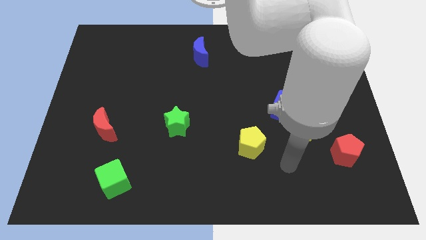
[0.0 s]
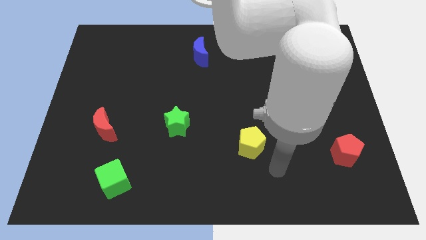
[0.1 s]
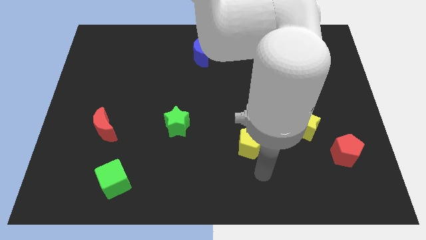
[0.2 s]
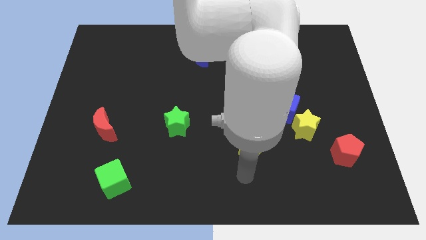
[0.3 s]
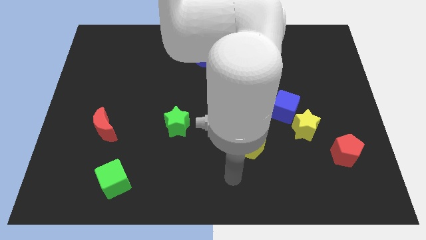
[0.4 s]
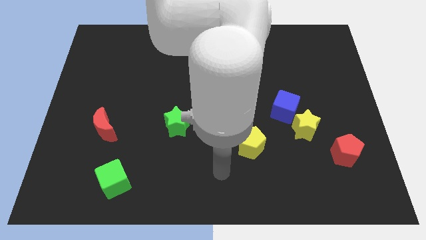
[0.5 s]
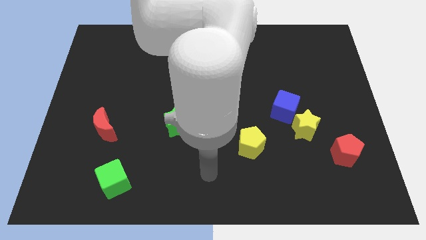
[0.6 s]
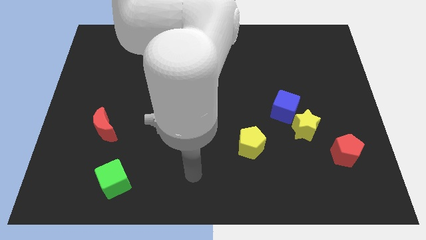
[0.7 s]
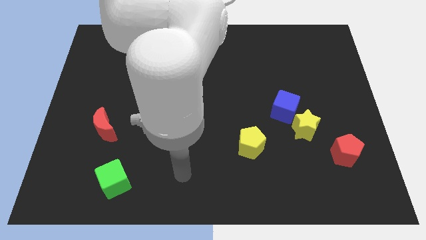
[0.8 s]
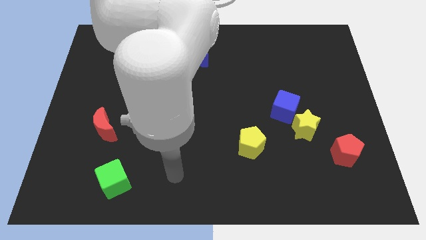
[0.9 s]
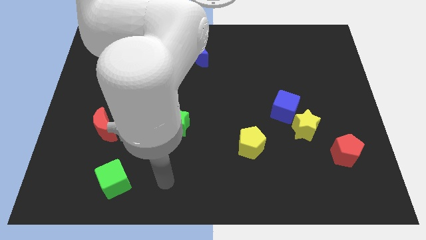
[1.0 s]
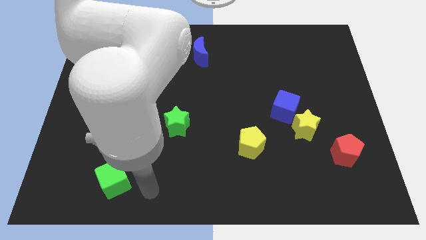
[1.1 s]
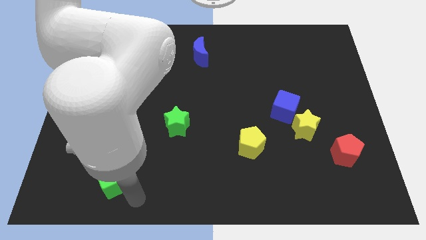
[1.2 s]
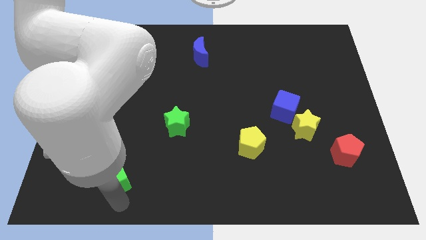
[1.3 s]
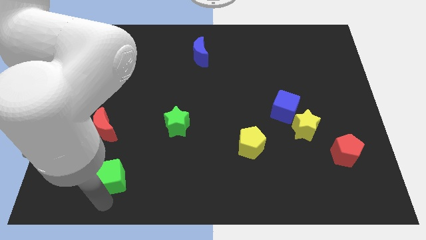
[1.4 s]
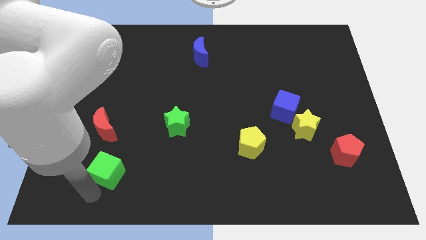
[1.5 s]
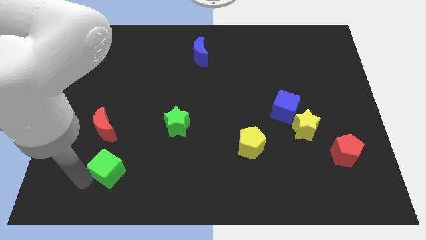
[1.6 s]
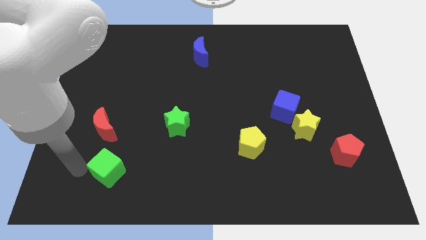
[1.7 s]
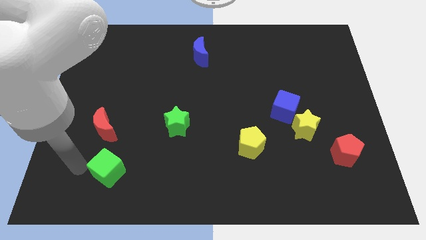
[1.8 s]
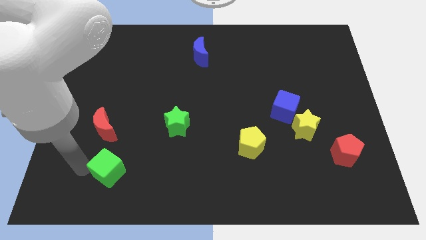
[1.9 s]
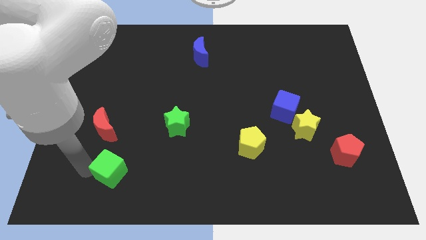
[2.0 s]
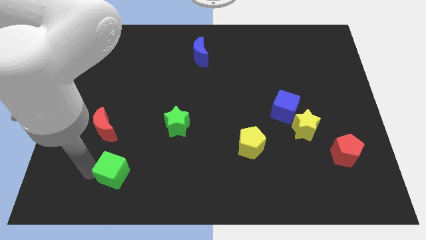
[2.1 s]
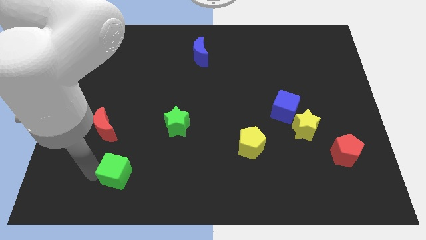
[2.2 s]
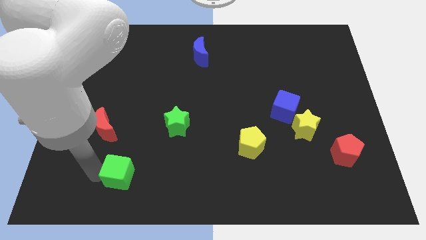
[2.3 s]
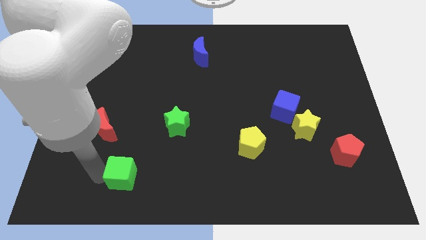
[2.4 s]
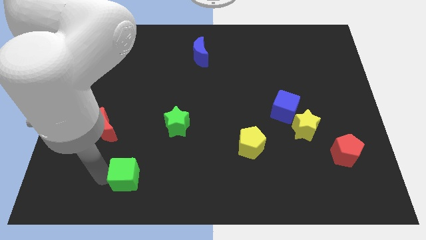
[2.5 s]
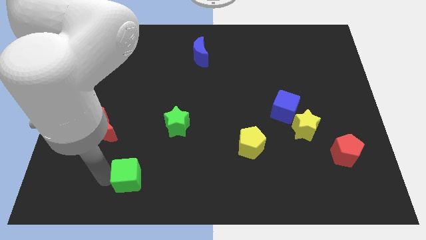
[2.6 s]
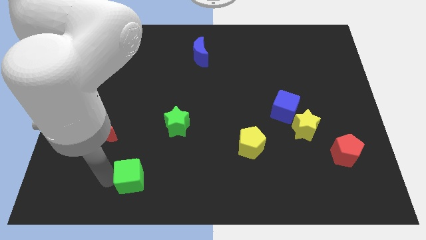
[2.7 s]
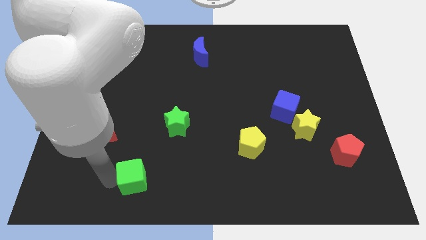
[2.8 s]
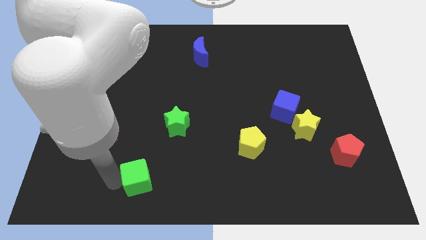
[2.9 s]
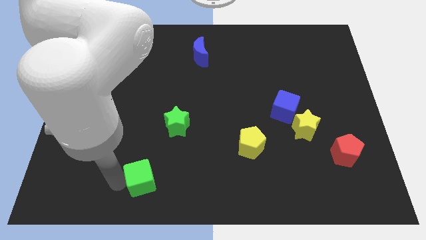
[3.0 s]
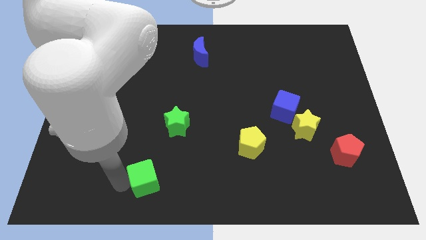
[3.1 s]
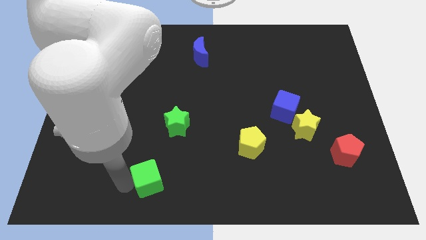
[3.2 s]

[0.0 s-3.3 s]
push the green cube to the right somewhat

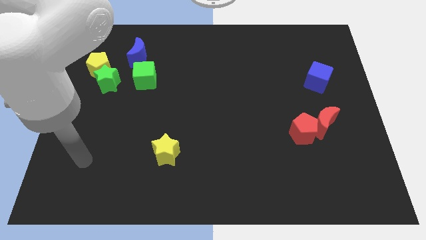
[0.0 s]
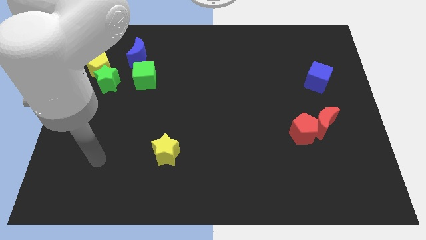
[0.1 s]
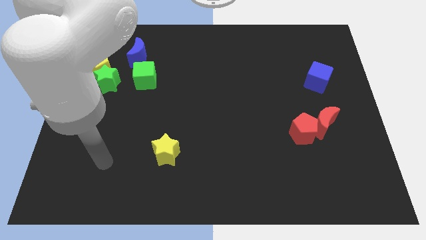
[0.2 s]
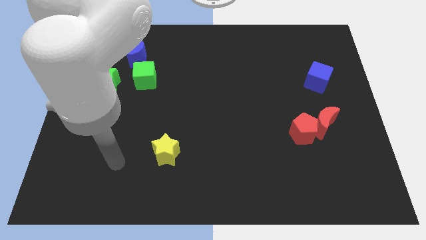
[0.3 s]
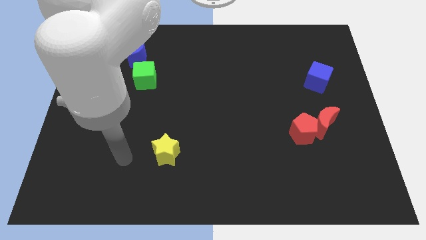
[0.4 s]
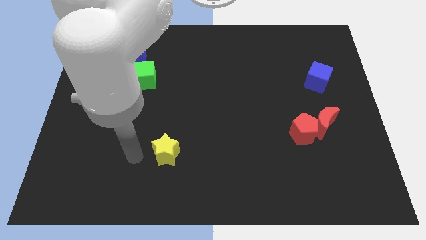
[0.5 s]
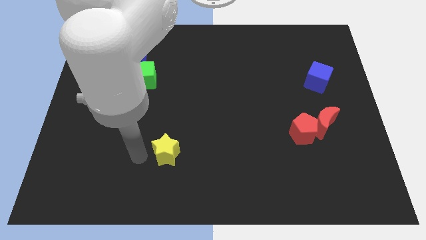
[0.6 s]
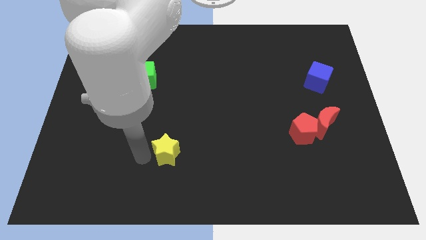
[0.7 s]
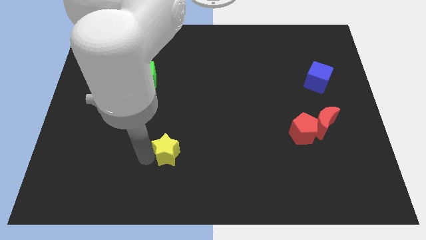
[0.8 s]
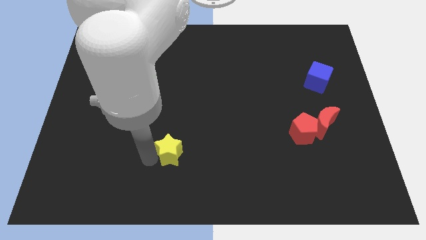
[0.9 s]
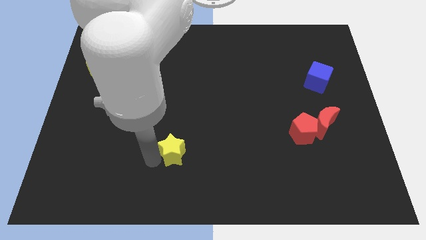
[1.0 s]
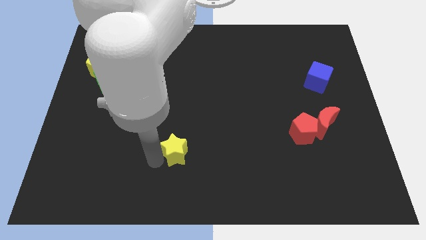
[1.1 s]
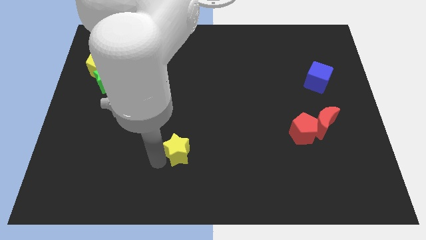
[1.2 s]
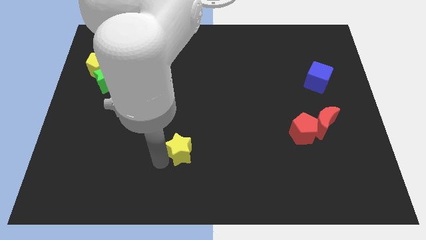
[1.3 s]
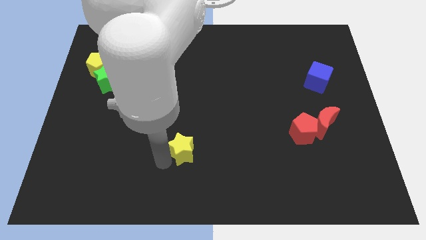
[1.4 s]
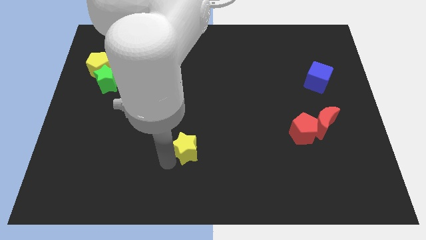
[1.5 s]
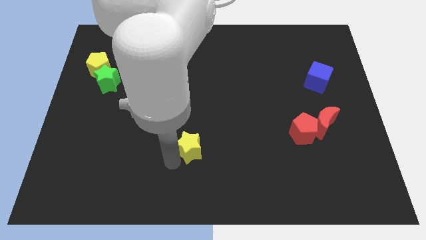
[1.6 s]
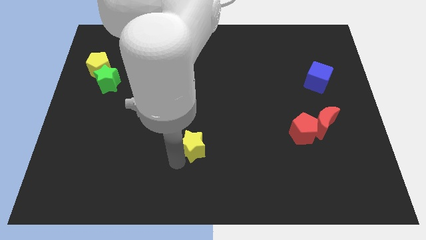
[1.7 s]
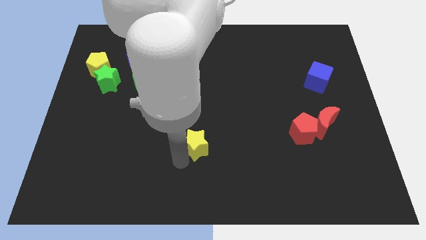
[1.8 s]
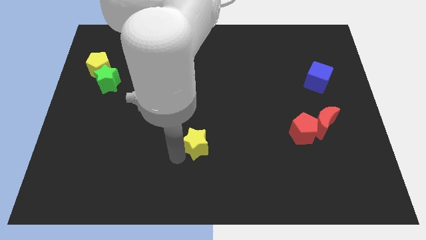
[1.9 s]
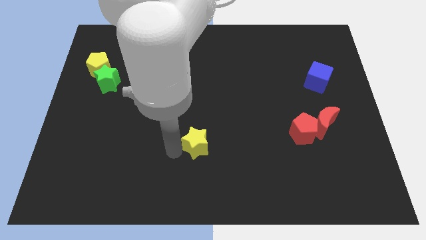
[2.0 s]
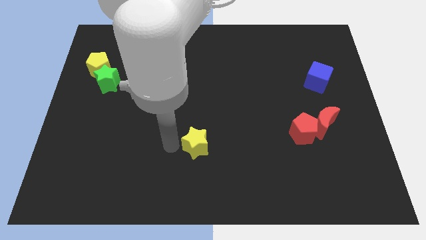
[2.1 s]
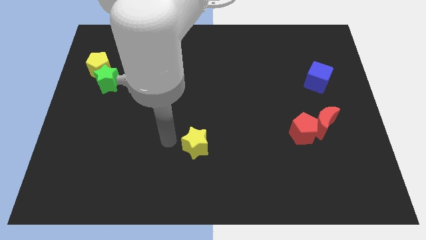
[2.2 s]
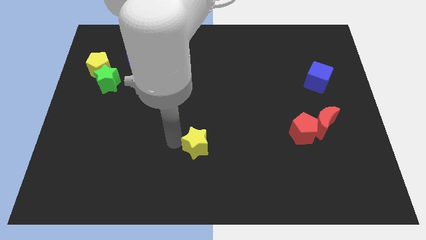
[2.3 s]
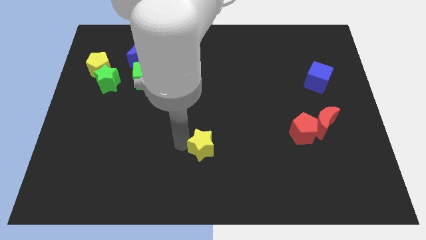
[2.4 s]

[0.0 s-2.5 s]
slightly push the yellow star to the right

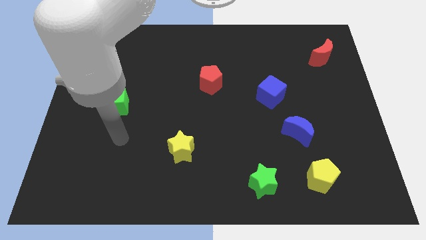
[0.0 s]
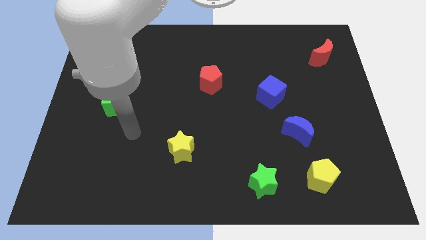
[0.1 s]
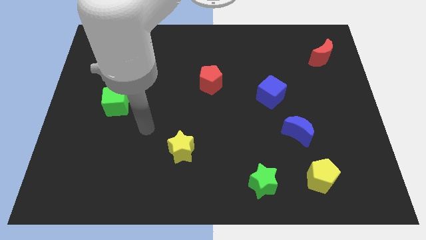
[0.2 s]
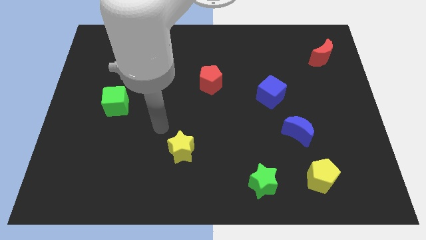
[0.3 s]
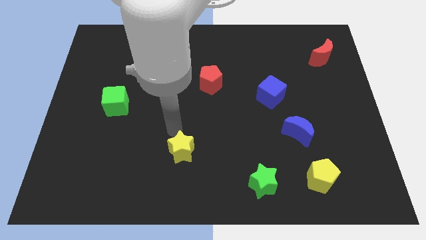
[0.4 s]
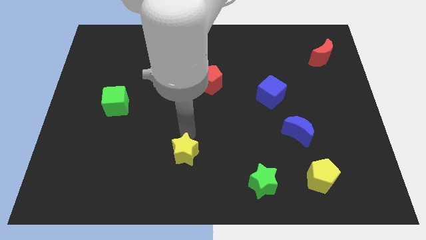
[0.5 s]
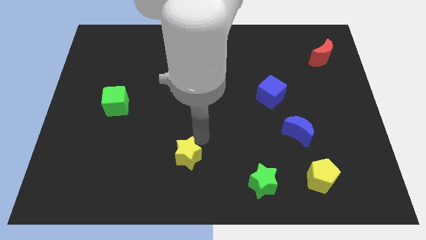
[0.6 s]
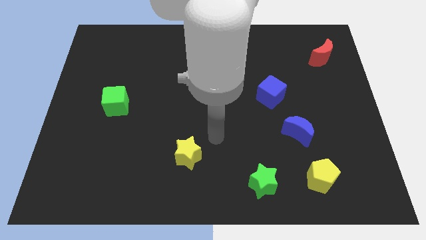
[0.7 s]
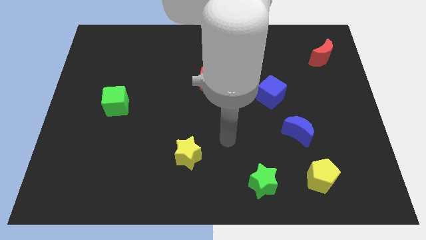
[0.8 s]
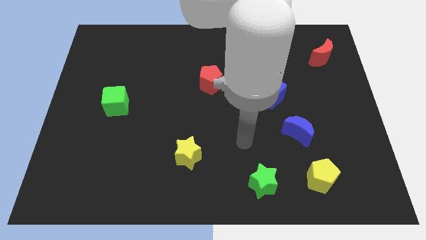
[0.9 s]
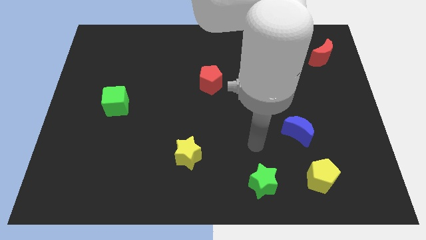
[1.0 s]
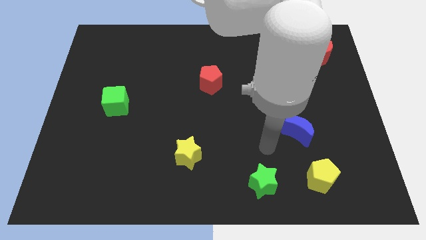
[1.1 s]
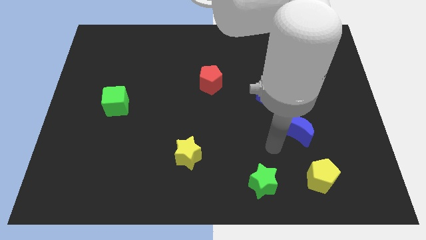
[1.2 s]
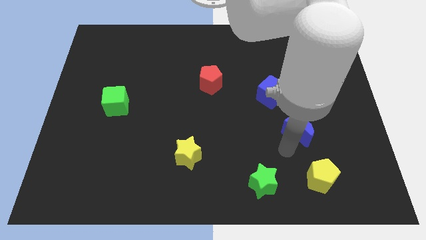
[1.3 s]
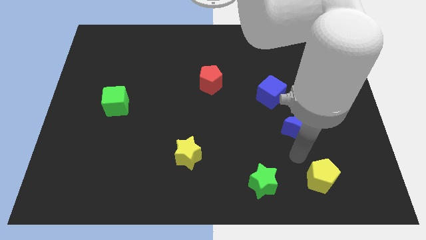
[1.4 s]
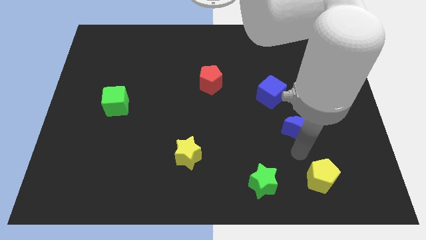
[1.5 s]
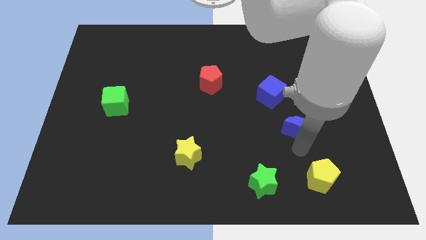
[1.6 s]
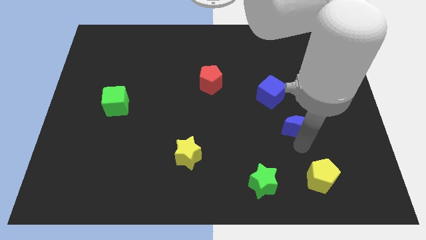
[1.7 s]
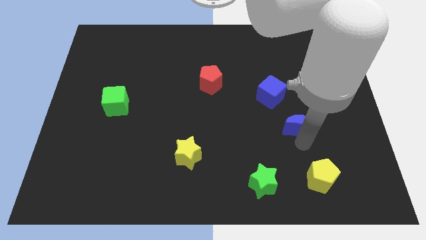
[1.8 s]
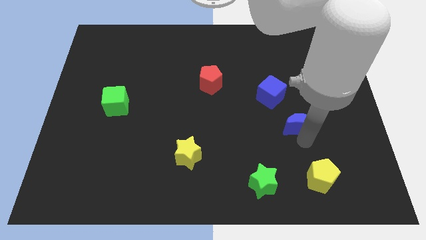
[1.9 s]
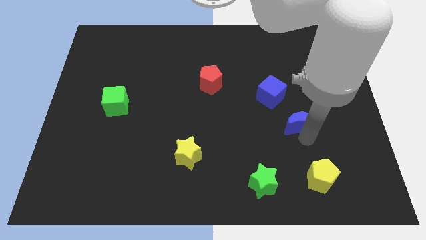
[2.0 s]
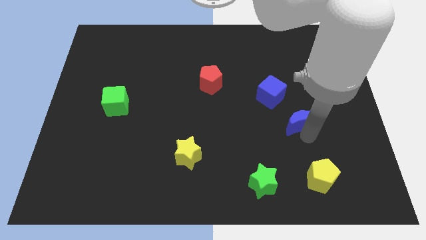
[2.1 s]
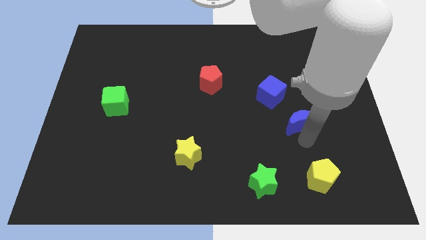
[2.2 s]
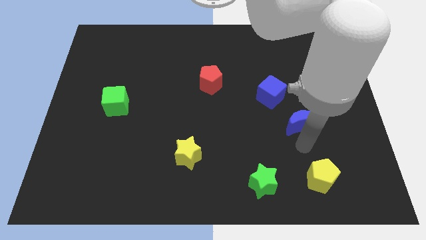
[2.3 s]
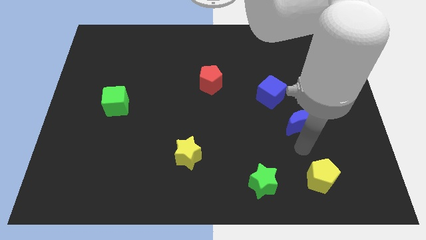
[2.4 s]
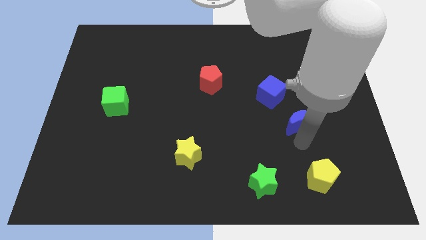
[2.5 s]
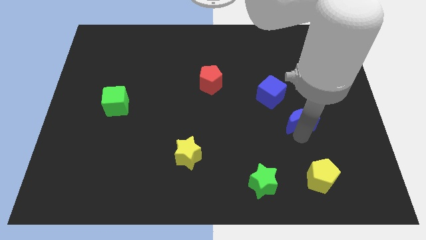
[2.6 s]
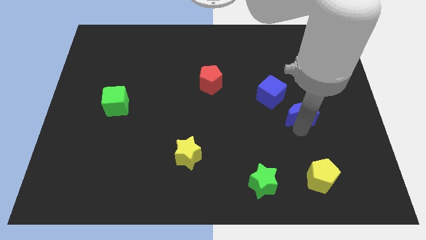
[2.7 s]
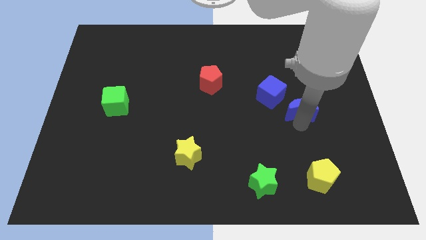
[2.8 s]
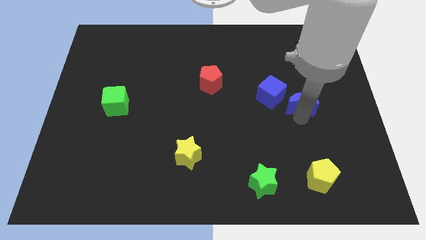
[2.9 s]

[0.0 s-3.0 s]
move the blue moon upwards somewhat
